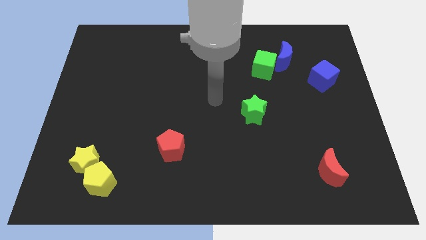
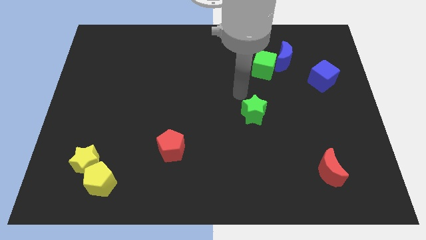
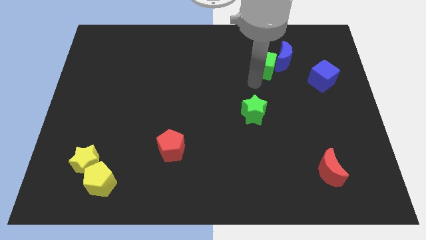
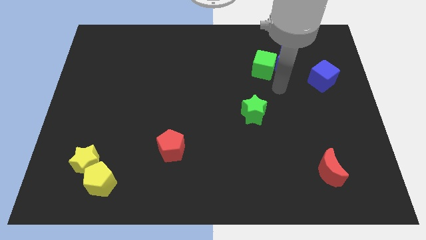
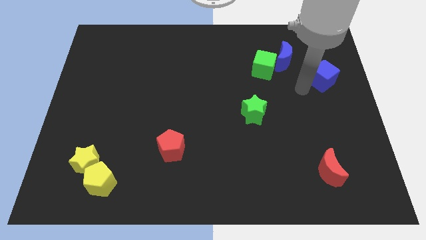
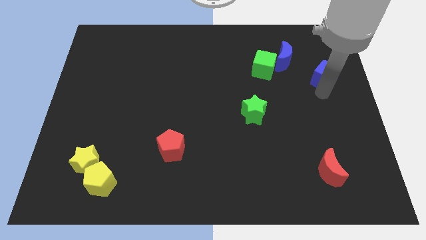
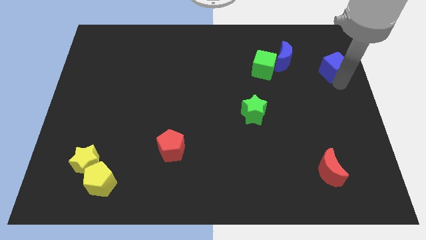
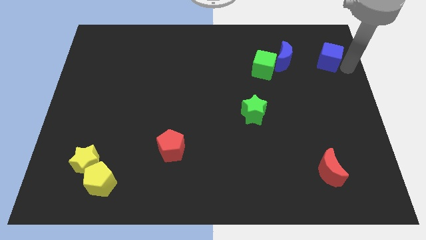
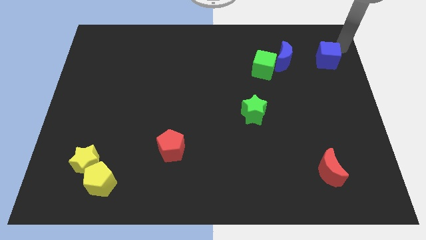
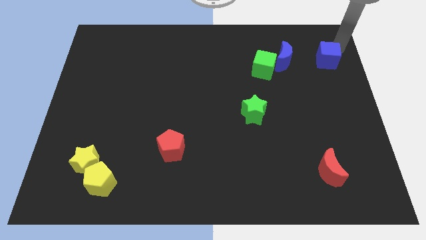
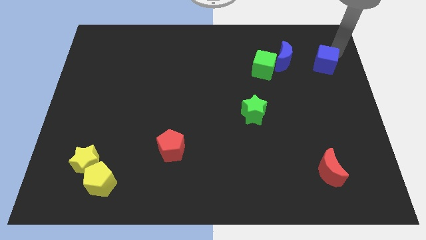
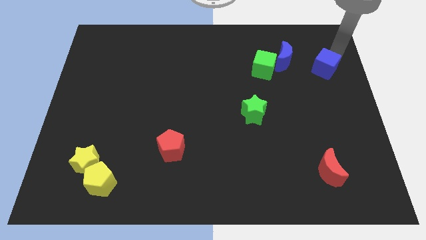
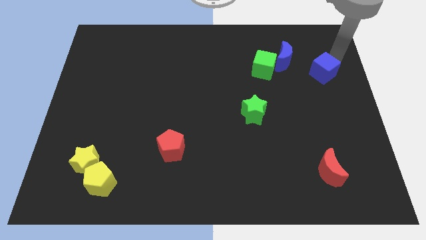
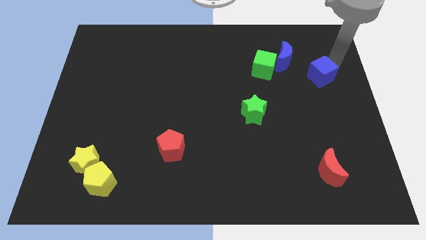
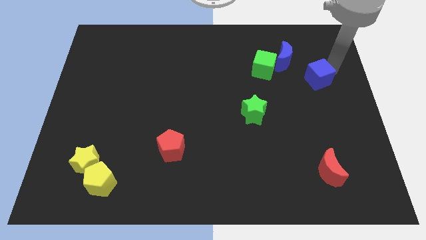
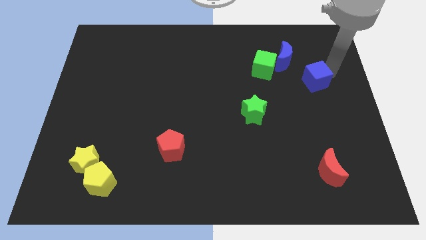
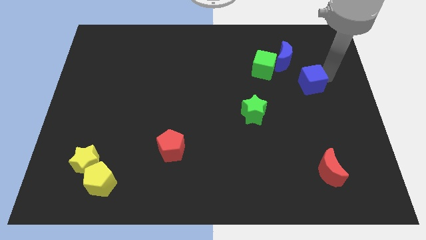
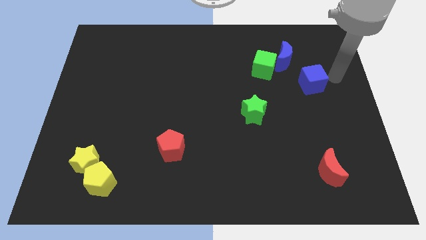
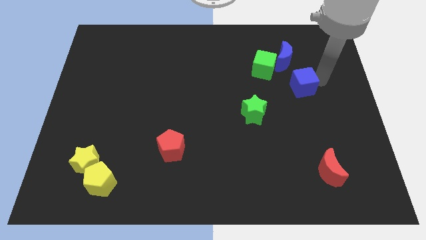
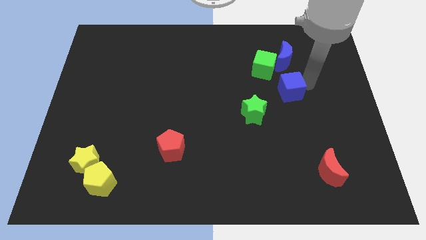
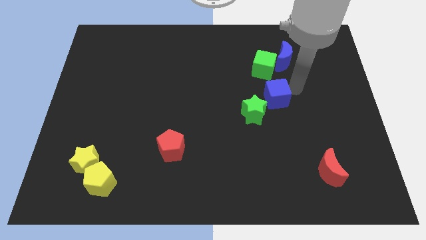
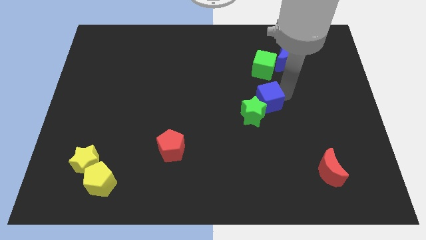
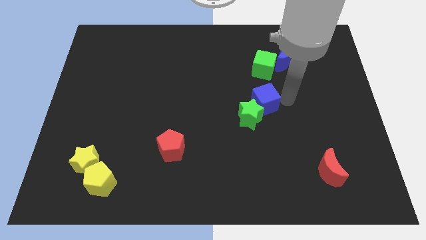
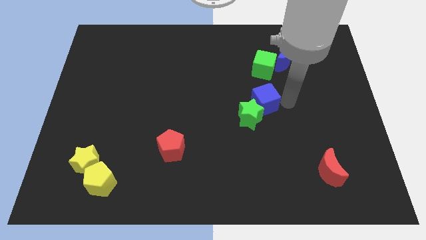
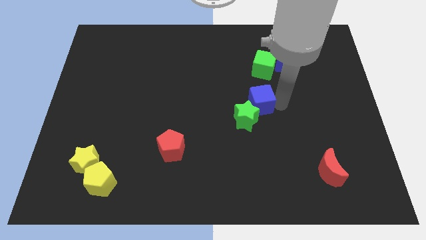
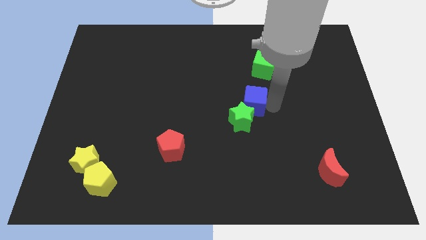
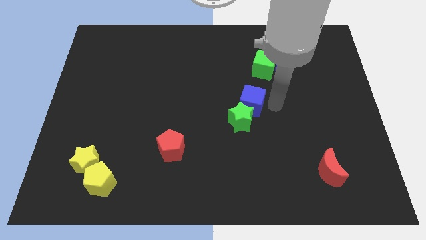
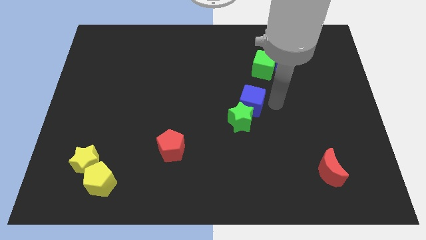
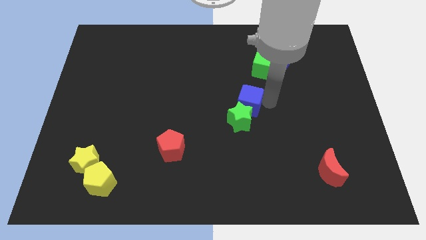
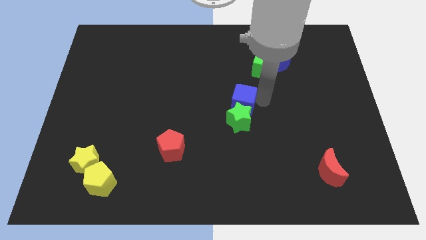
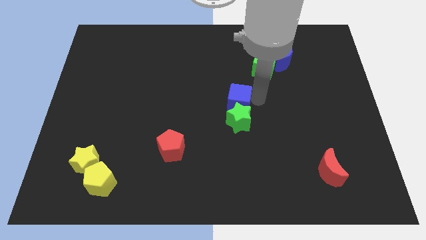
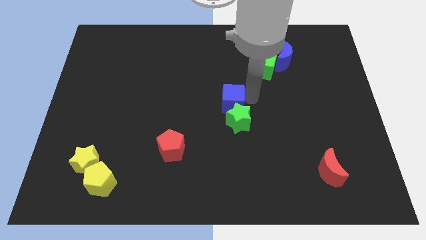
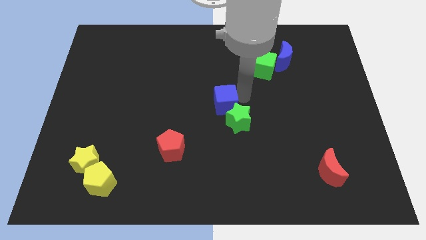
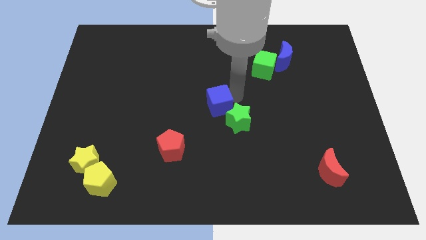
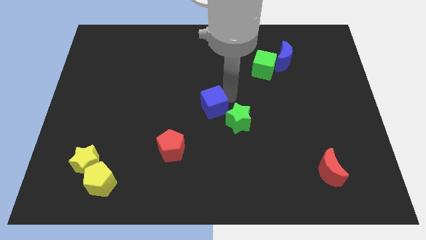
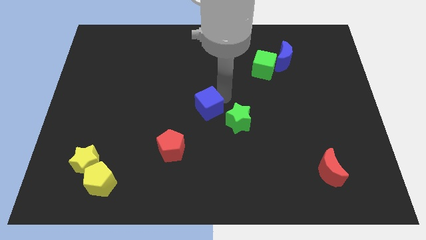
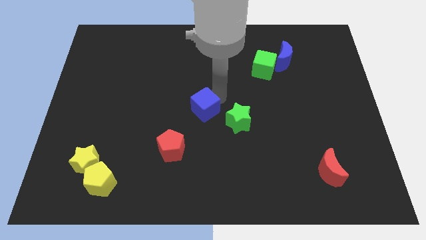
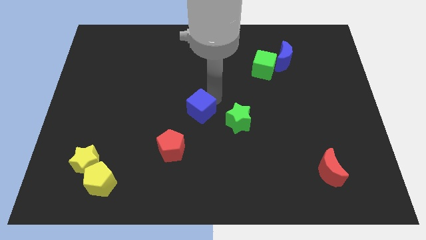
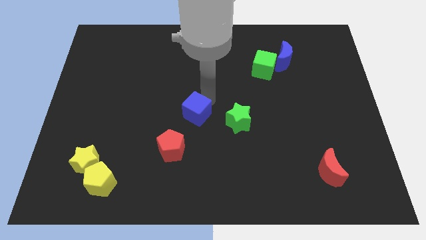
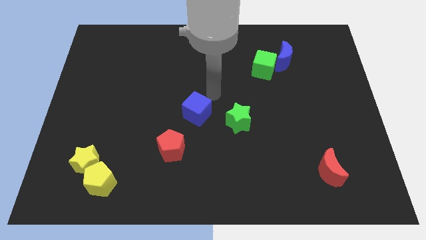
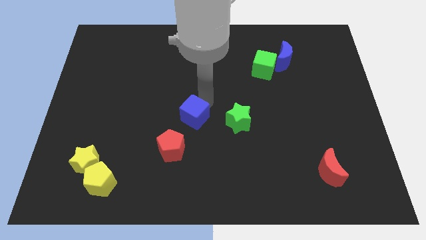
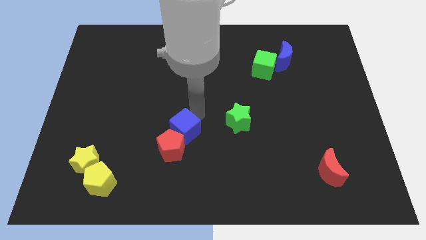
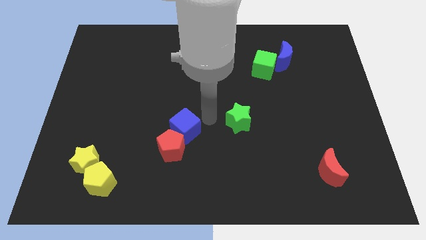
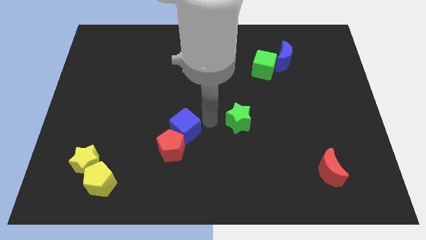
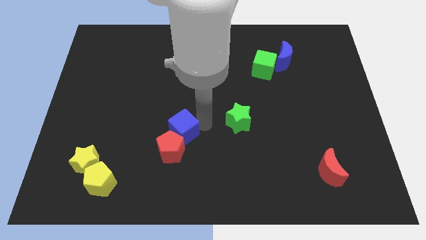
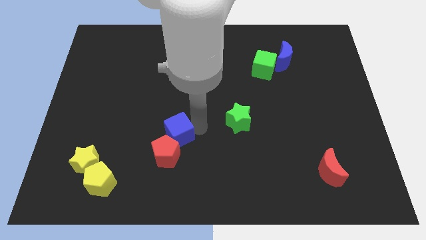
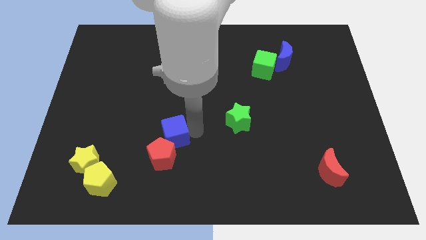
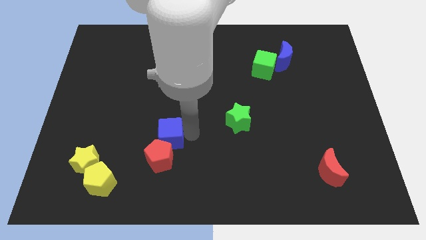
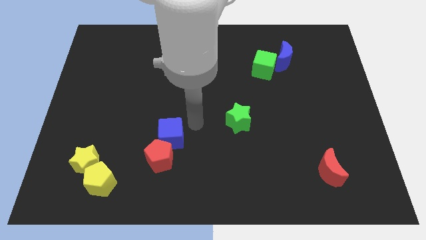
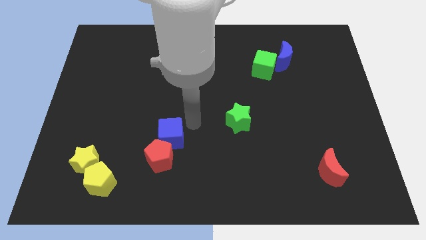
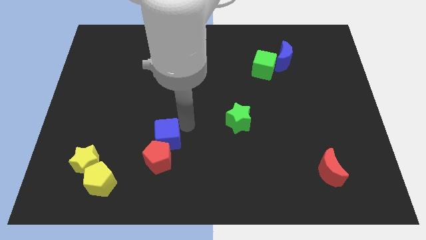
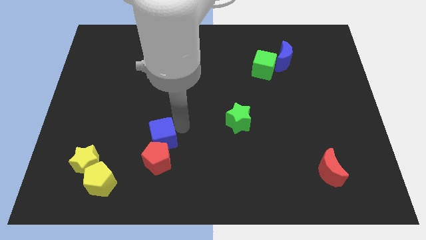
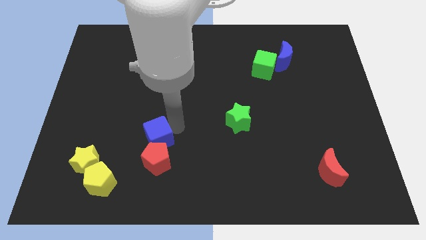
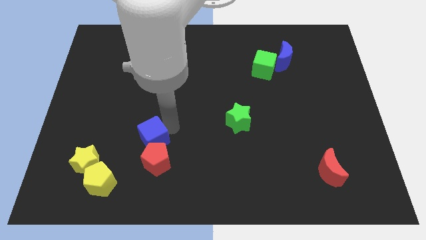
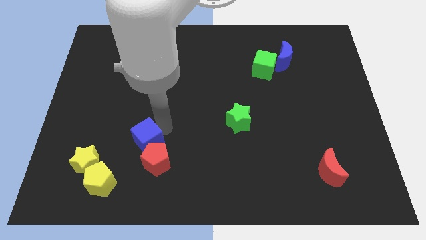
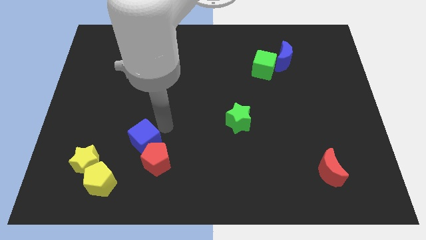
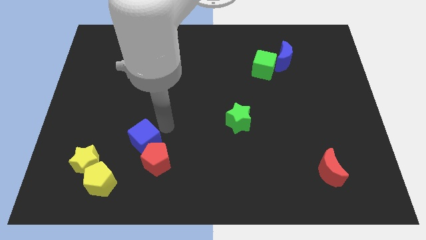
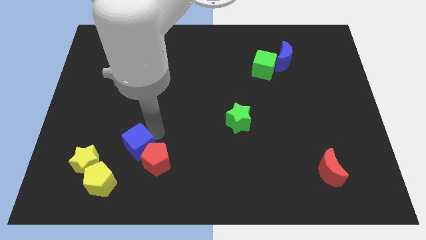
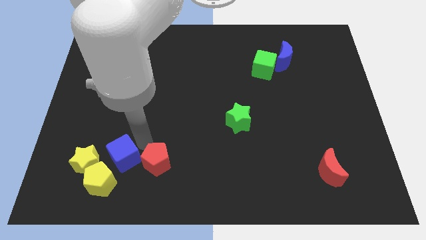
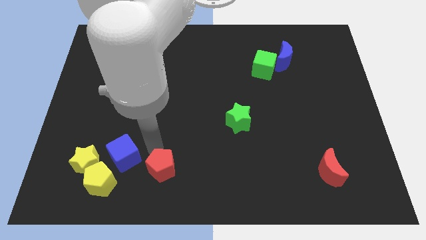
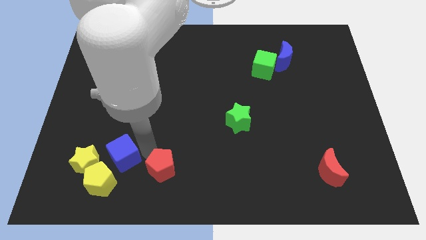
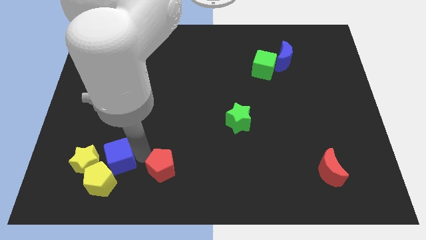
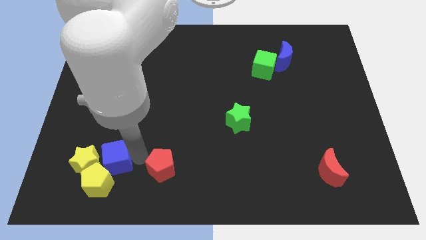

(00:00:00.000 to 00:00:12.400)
put the blue cube towards the yellow star
